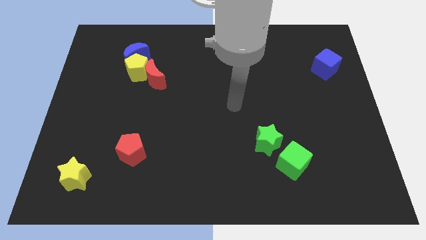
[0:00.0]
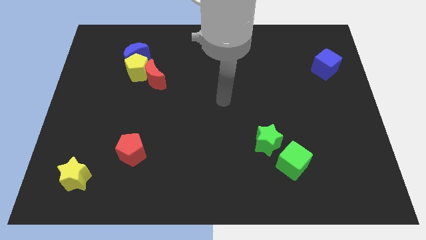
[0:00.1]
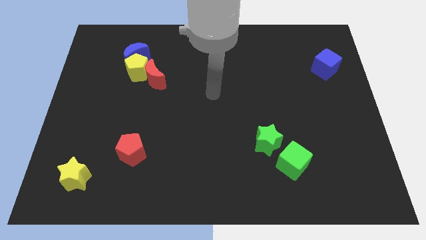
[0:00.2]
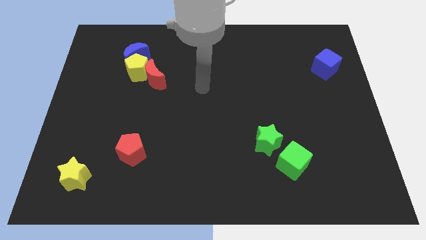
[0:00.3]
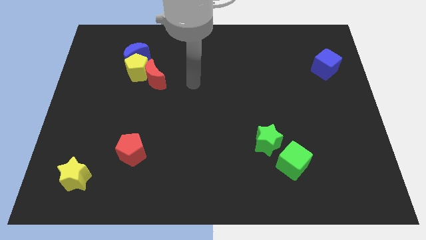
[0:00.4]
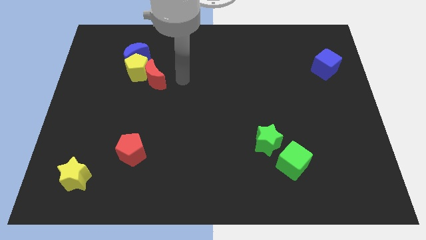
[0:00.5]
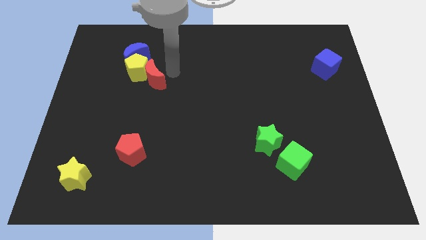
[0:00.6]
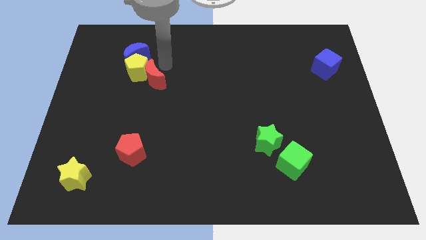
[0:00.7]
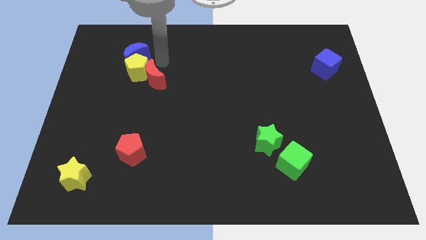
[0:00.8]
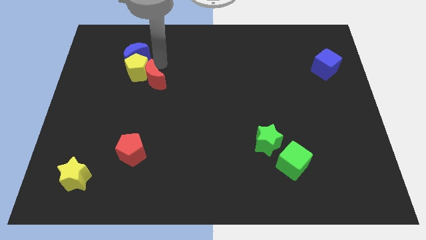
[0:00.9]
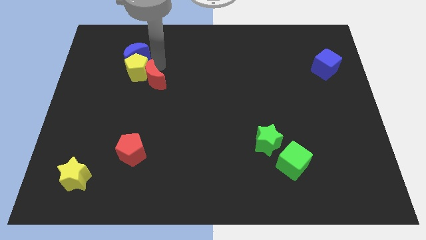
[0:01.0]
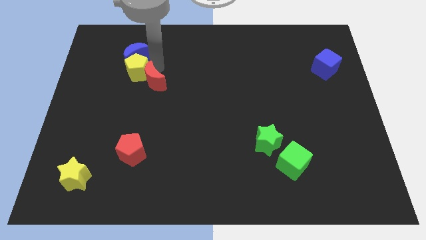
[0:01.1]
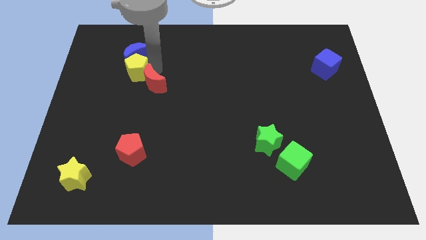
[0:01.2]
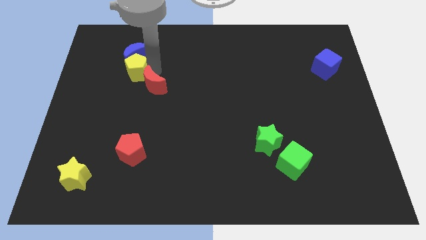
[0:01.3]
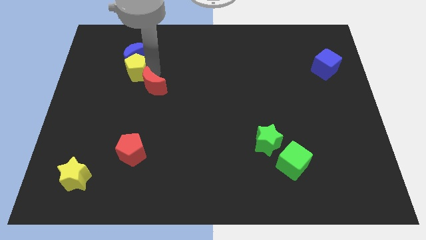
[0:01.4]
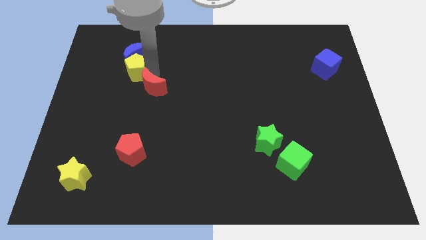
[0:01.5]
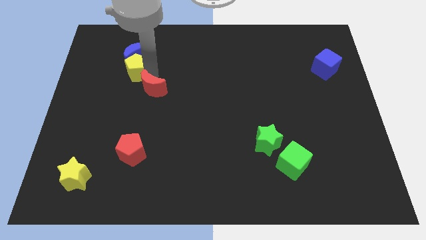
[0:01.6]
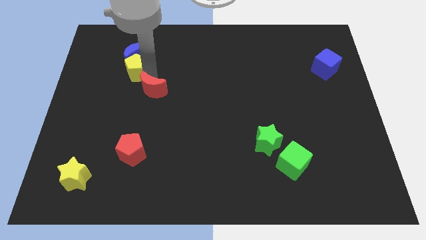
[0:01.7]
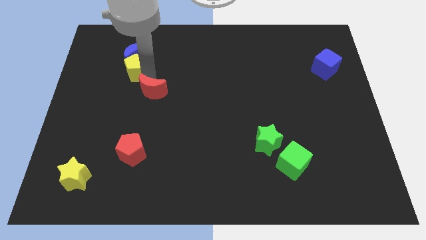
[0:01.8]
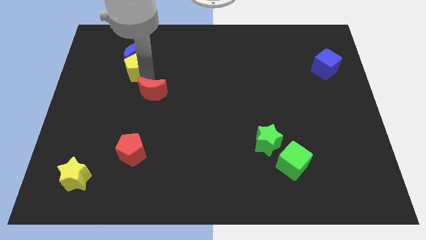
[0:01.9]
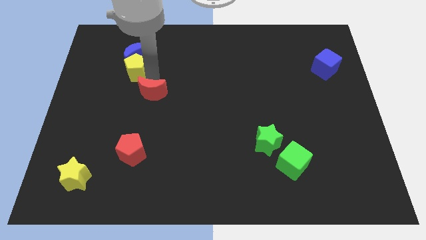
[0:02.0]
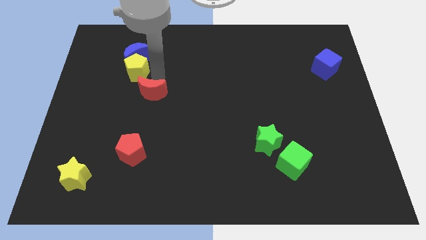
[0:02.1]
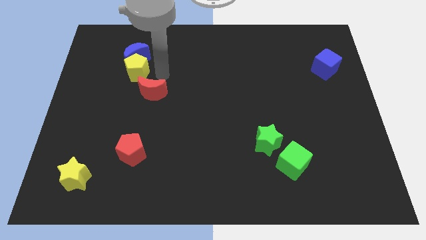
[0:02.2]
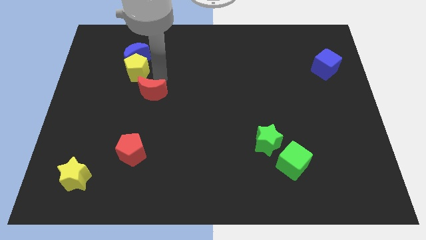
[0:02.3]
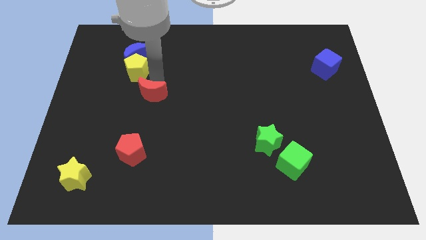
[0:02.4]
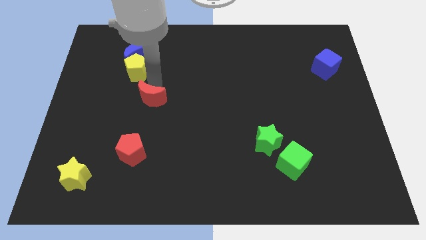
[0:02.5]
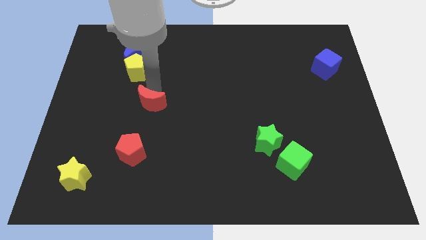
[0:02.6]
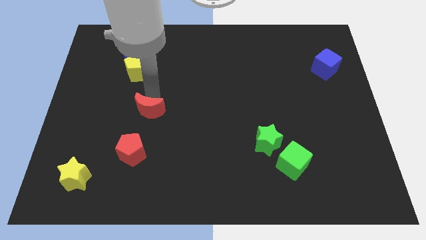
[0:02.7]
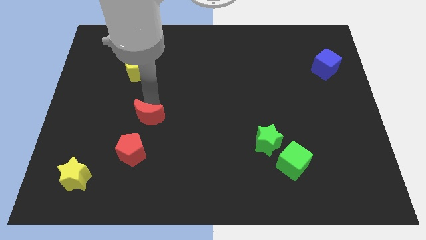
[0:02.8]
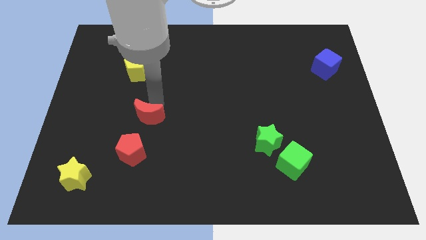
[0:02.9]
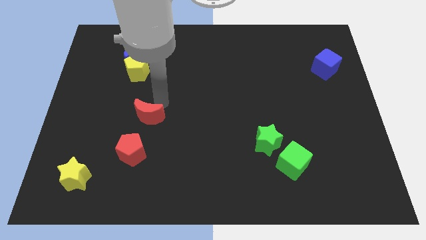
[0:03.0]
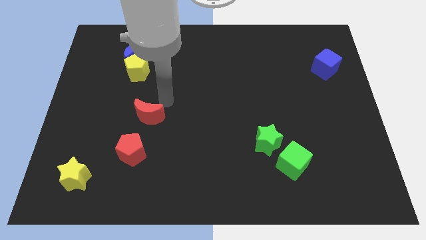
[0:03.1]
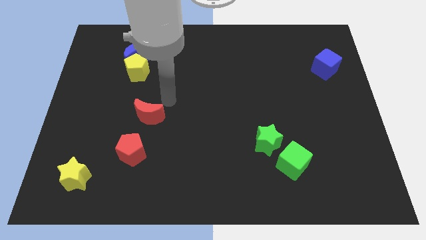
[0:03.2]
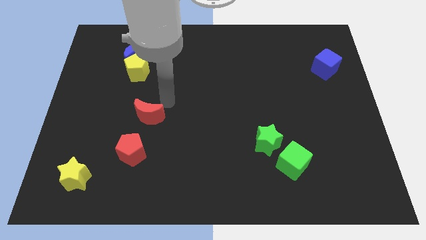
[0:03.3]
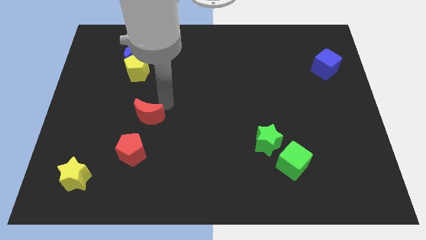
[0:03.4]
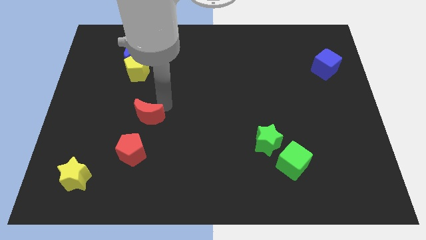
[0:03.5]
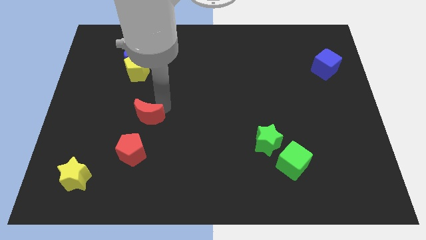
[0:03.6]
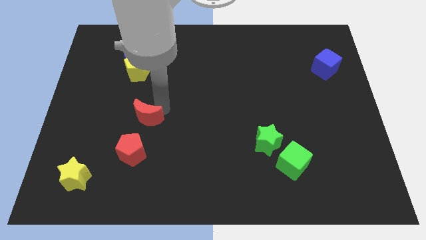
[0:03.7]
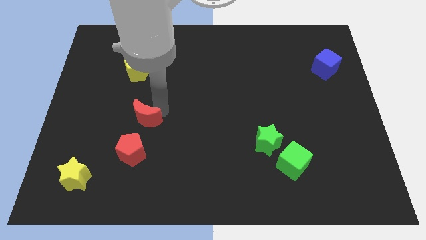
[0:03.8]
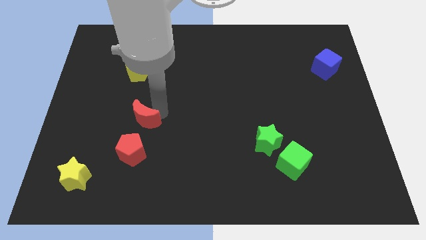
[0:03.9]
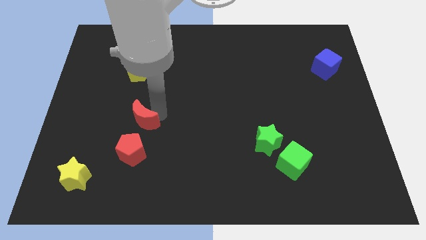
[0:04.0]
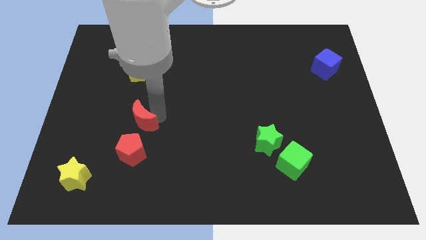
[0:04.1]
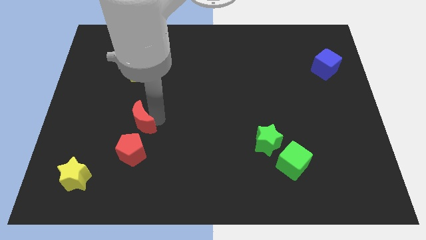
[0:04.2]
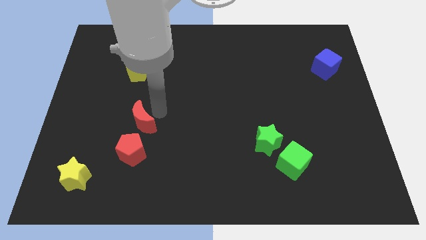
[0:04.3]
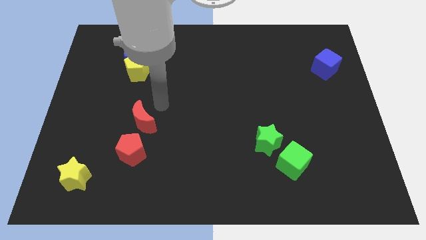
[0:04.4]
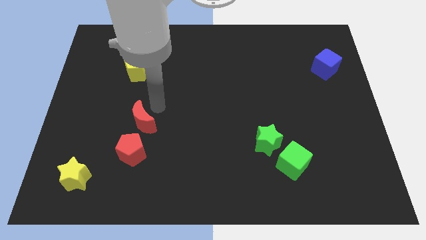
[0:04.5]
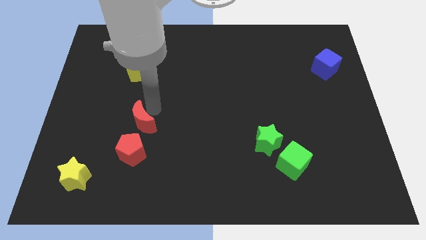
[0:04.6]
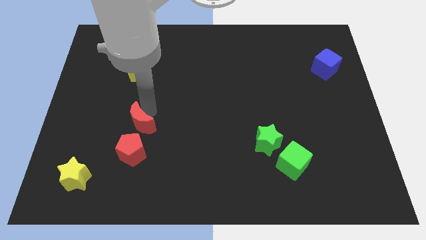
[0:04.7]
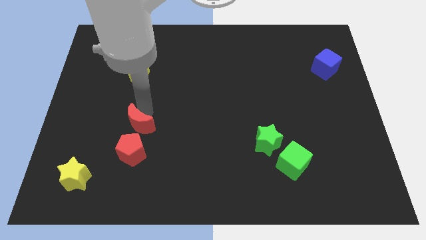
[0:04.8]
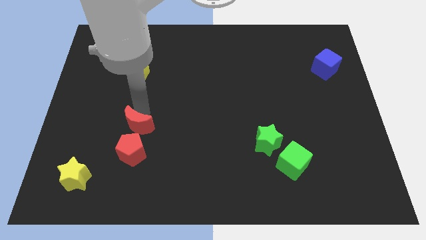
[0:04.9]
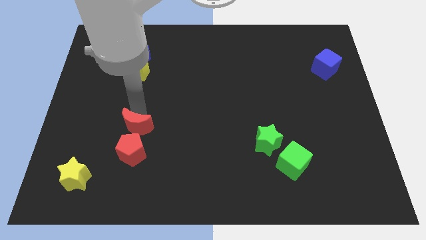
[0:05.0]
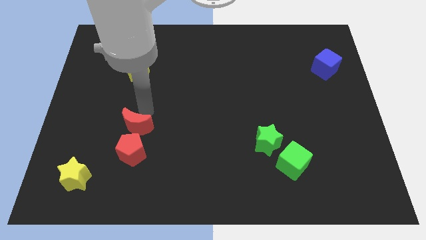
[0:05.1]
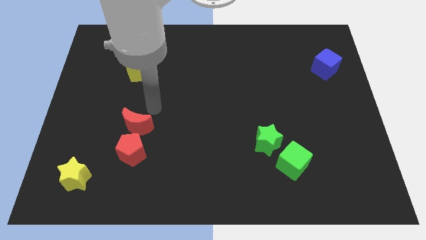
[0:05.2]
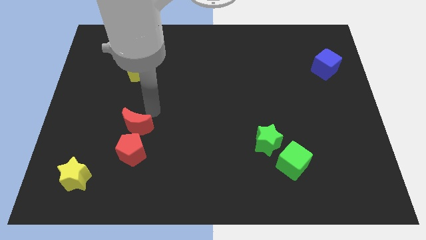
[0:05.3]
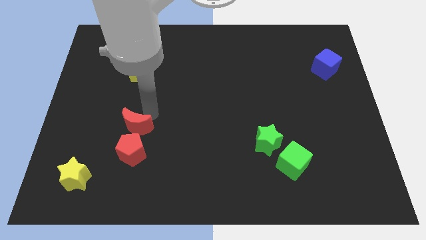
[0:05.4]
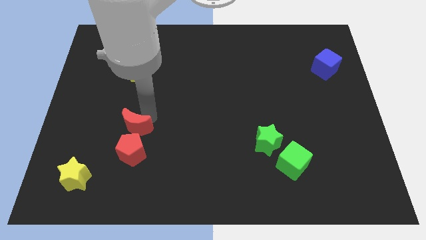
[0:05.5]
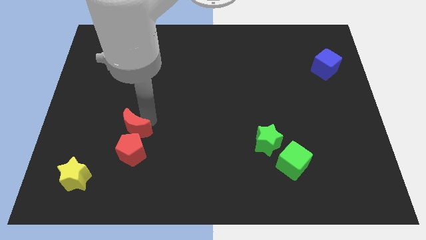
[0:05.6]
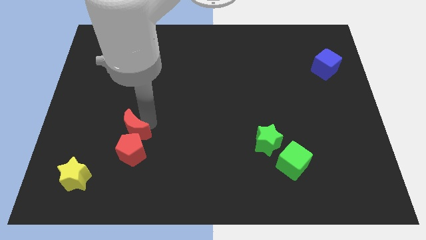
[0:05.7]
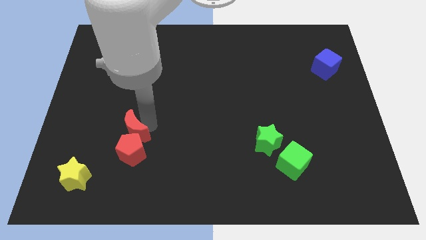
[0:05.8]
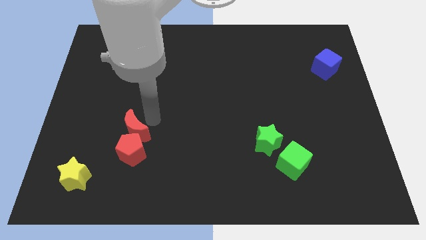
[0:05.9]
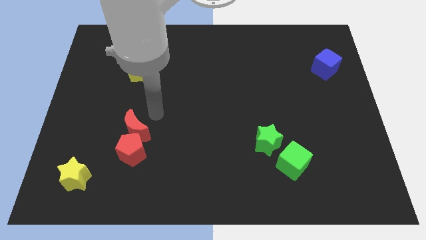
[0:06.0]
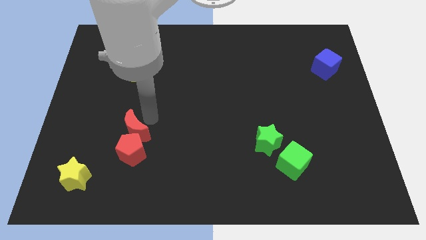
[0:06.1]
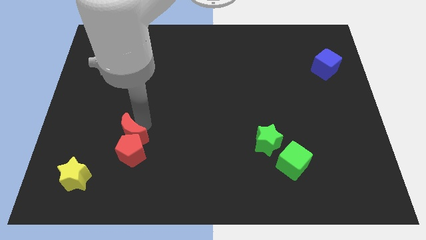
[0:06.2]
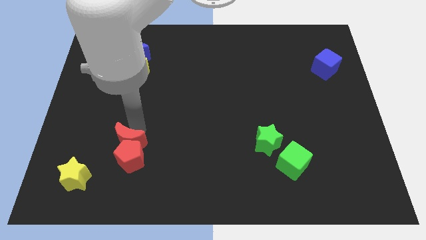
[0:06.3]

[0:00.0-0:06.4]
slide the red moon to the top right side of the yellow star

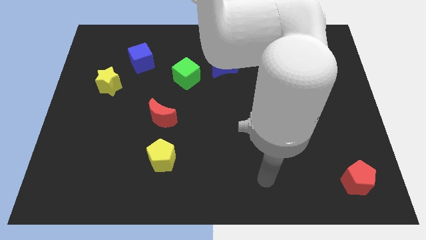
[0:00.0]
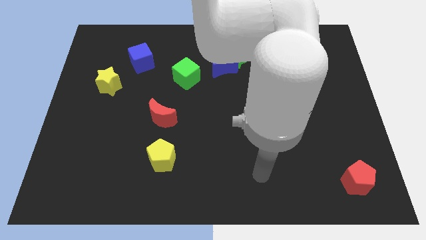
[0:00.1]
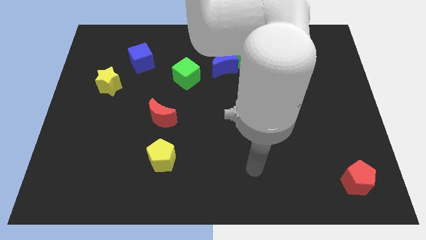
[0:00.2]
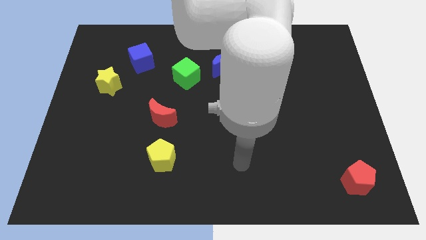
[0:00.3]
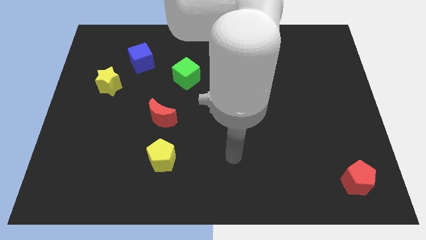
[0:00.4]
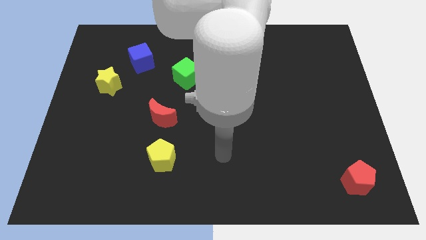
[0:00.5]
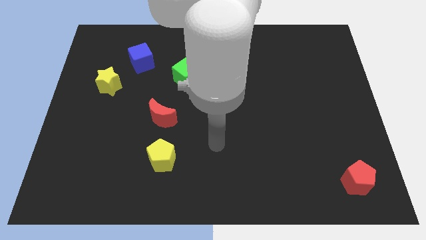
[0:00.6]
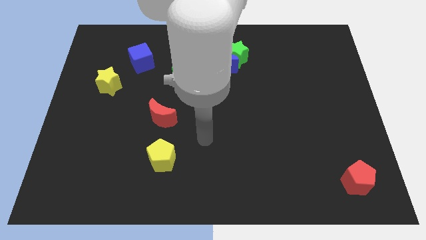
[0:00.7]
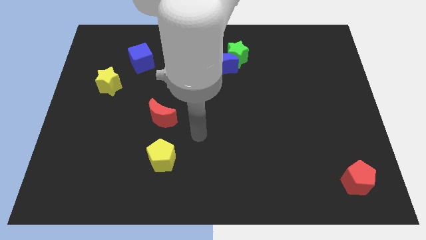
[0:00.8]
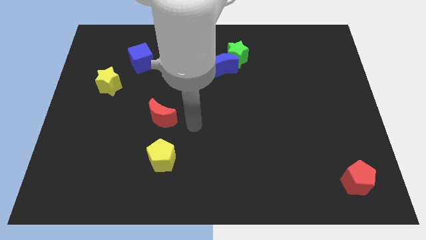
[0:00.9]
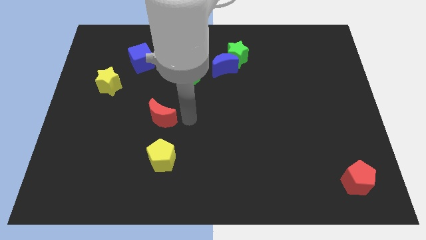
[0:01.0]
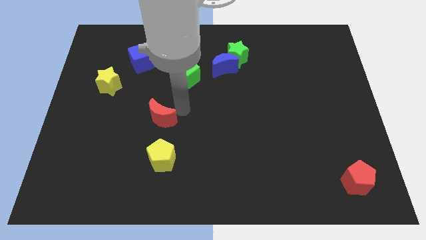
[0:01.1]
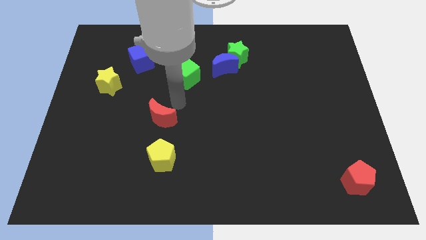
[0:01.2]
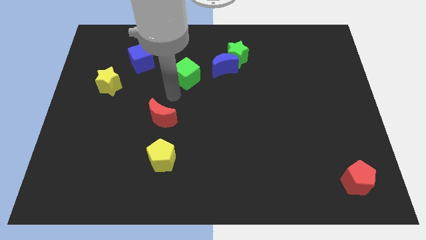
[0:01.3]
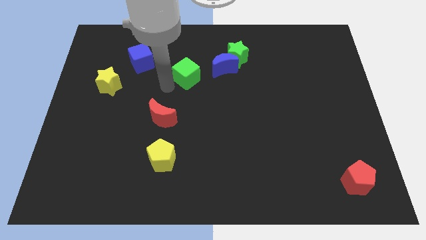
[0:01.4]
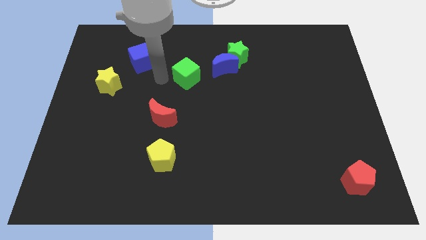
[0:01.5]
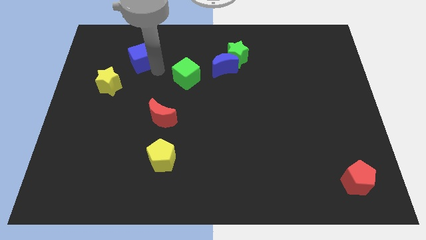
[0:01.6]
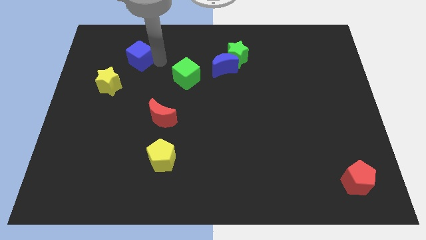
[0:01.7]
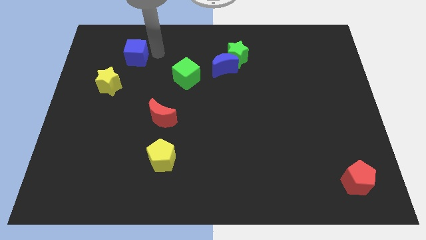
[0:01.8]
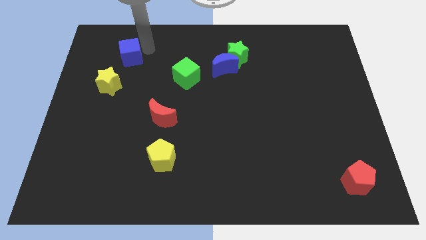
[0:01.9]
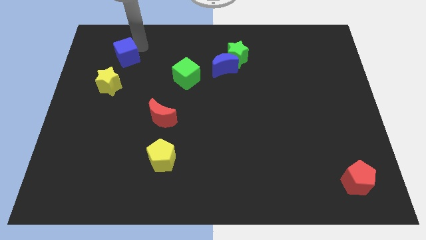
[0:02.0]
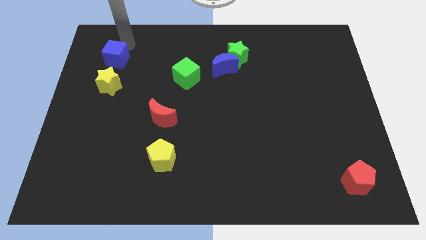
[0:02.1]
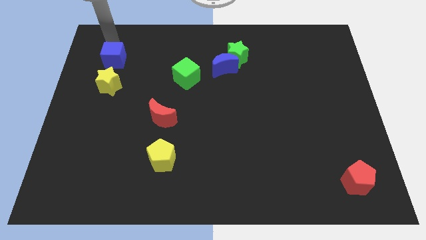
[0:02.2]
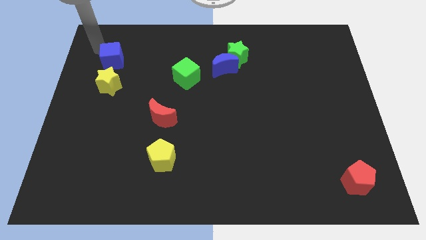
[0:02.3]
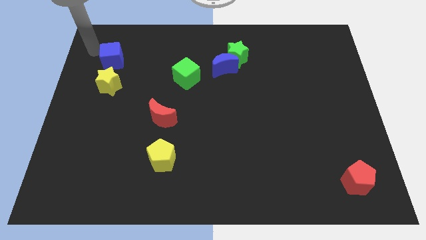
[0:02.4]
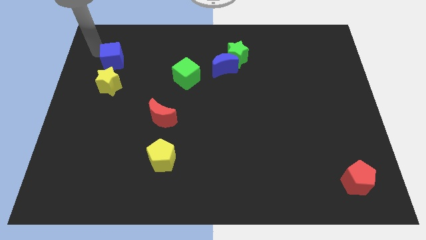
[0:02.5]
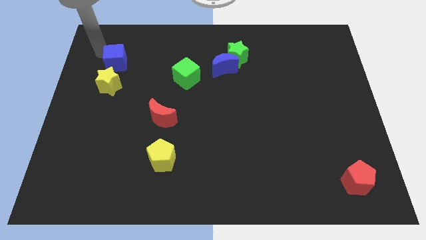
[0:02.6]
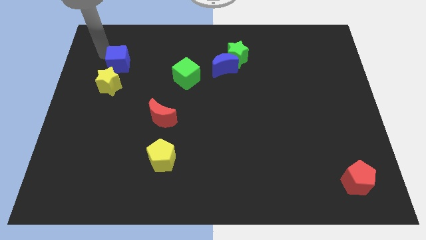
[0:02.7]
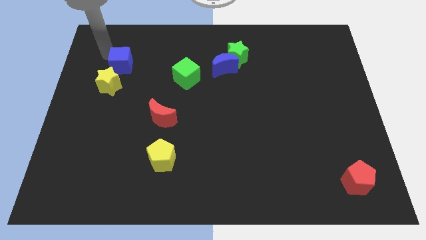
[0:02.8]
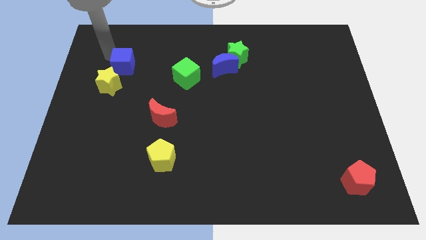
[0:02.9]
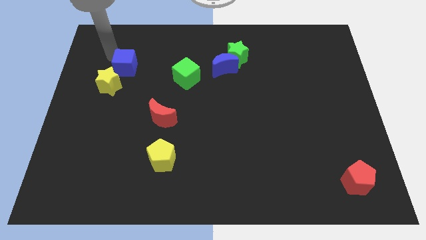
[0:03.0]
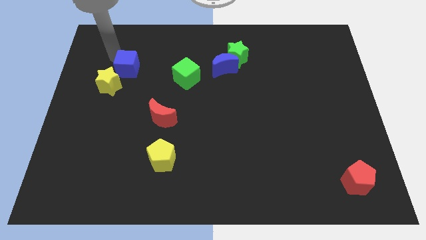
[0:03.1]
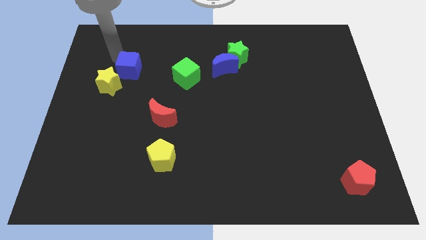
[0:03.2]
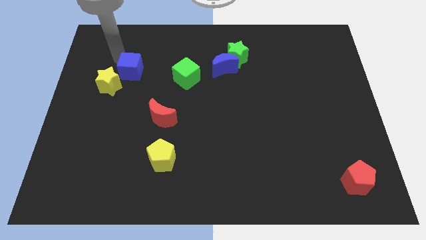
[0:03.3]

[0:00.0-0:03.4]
put the blue cube to the right side of the yellow star
